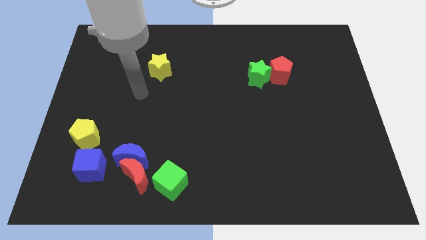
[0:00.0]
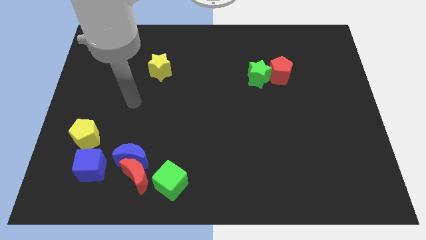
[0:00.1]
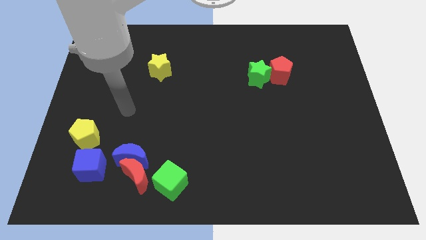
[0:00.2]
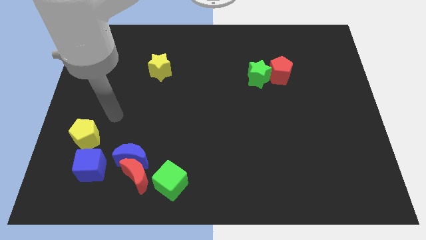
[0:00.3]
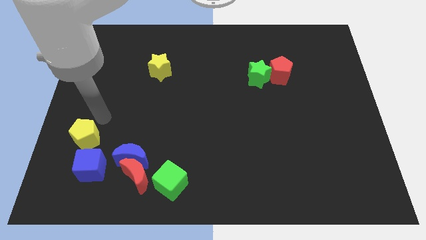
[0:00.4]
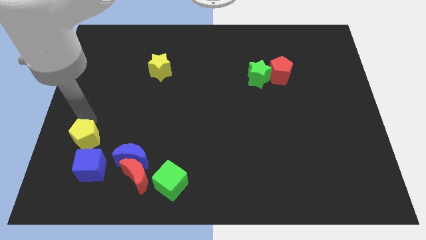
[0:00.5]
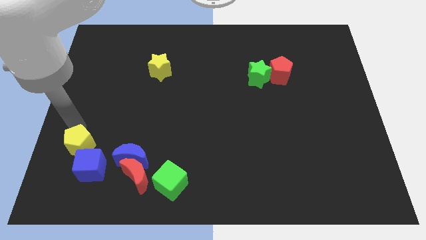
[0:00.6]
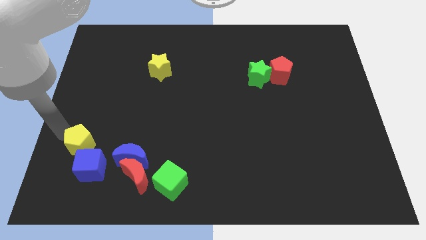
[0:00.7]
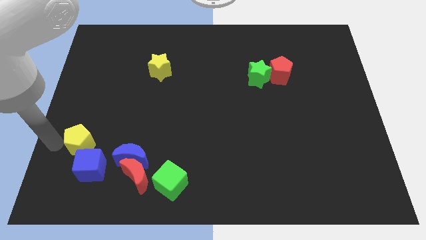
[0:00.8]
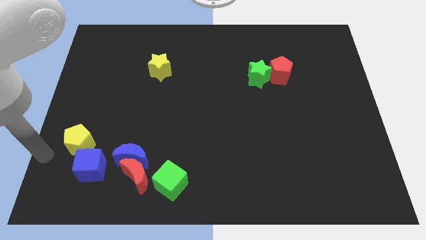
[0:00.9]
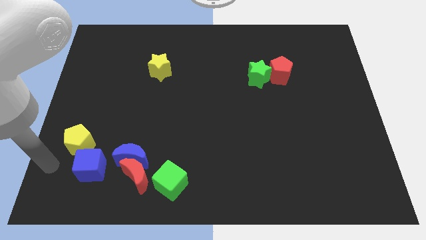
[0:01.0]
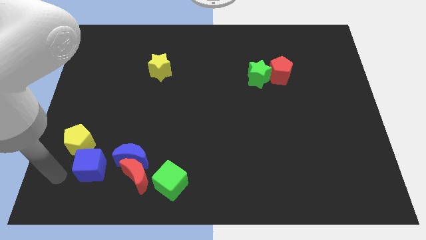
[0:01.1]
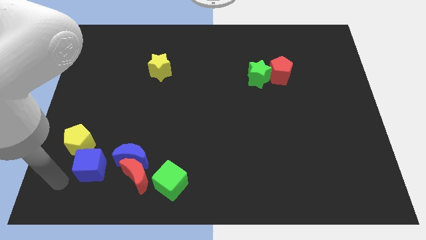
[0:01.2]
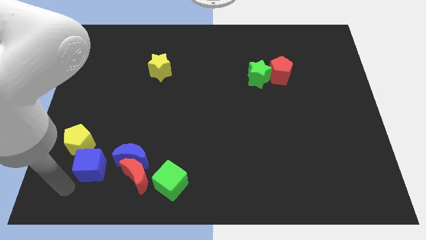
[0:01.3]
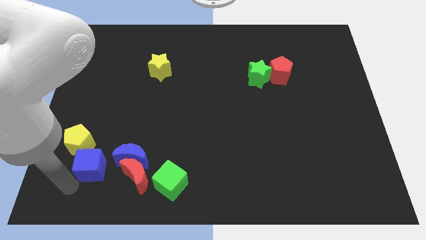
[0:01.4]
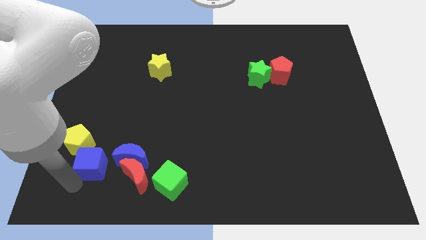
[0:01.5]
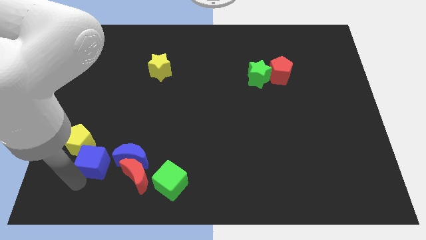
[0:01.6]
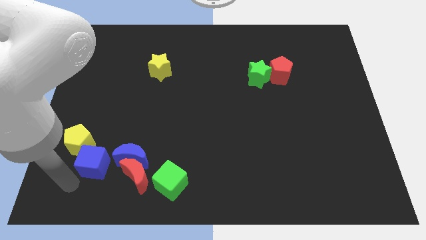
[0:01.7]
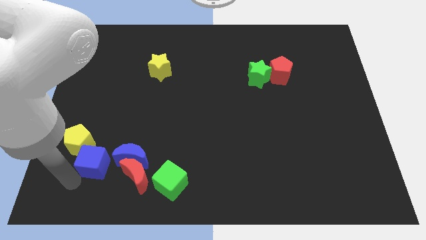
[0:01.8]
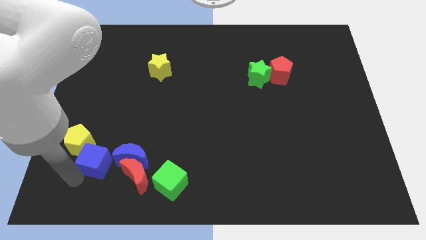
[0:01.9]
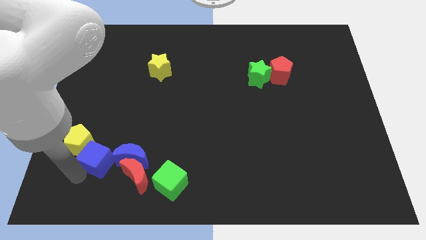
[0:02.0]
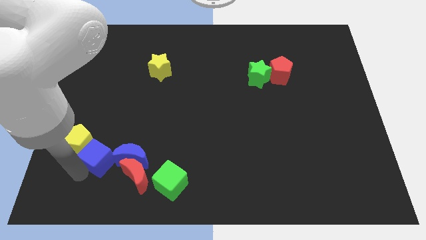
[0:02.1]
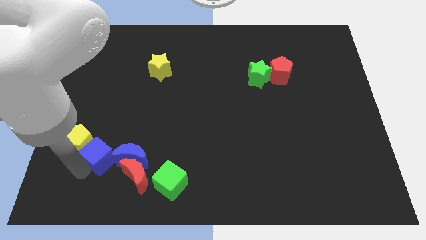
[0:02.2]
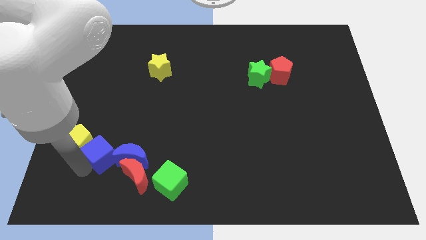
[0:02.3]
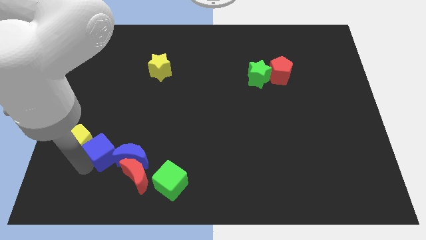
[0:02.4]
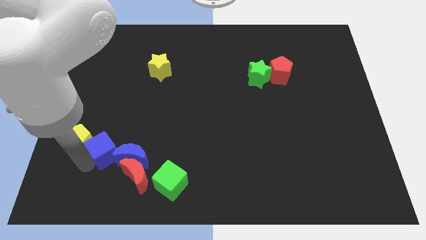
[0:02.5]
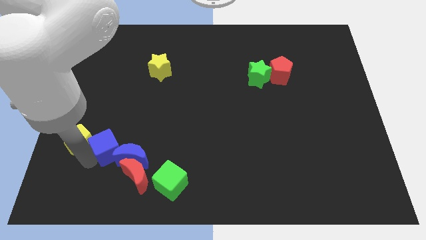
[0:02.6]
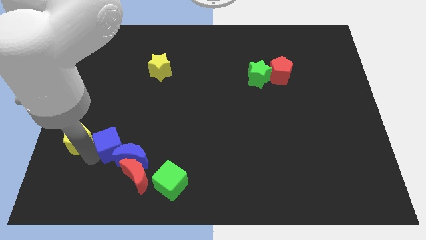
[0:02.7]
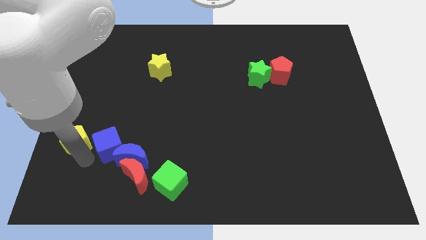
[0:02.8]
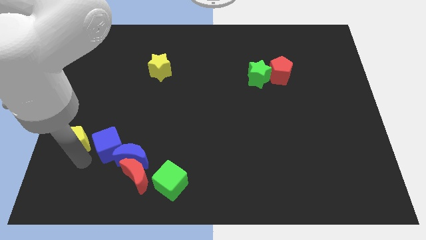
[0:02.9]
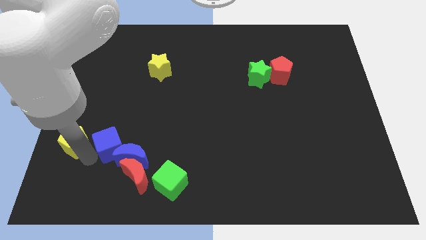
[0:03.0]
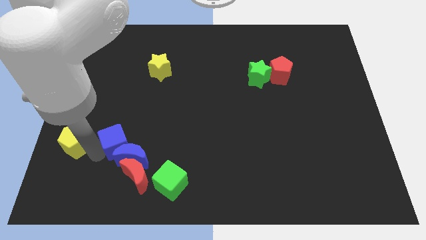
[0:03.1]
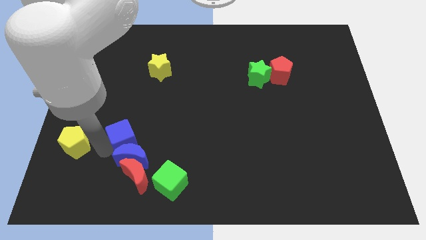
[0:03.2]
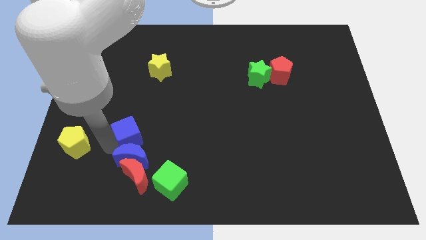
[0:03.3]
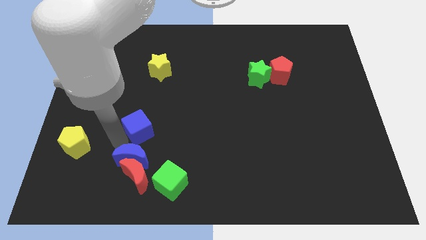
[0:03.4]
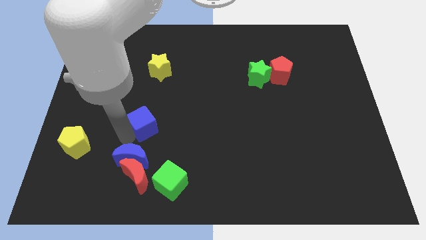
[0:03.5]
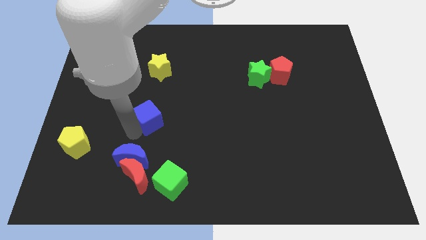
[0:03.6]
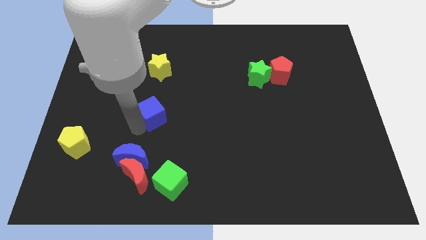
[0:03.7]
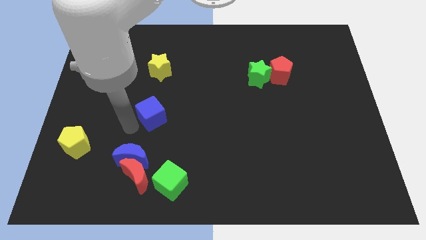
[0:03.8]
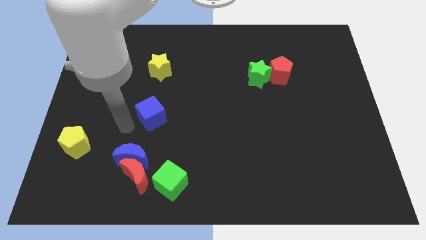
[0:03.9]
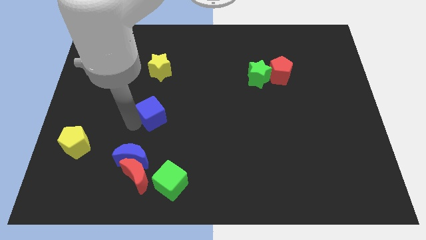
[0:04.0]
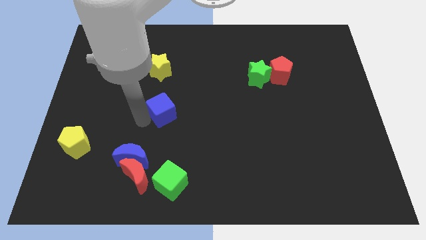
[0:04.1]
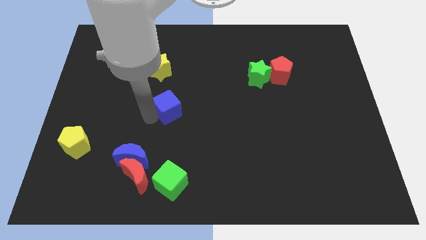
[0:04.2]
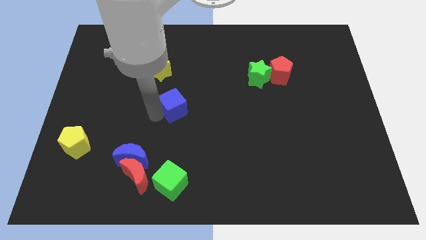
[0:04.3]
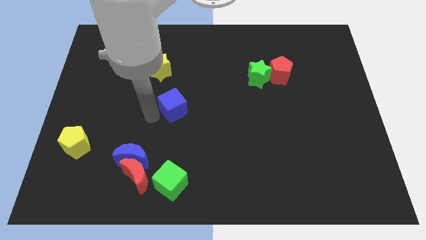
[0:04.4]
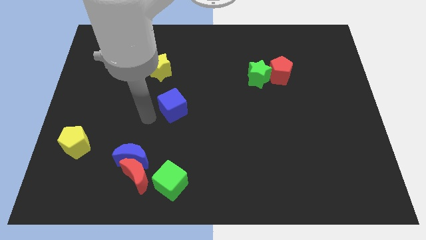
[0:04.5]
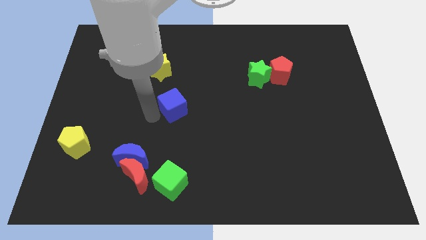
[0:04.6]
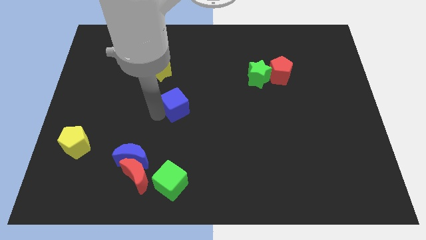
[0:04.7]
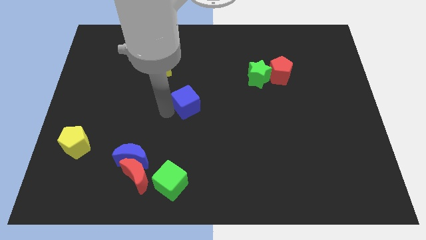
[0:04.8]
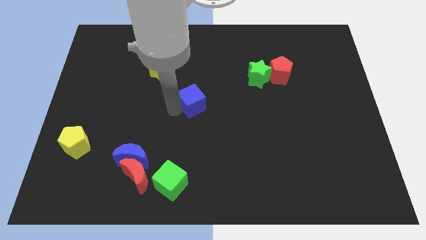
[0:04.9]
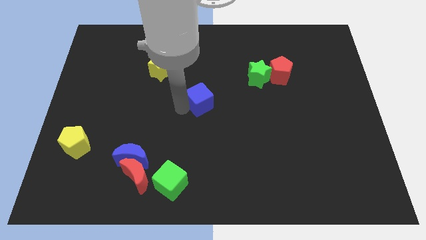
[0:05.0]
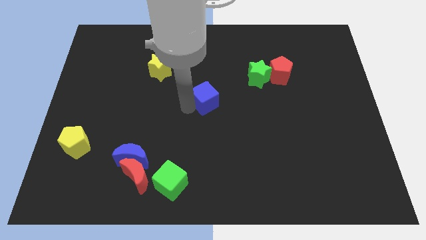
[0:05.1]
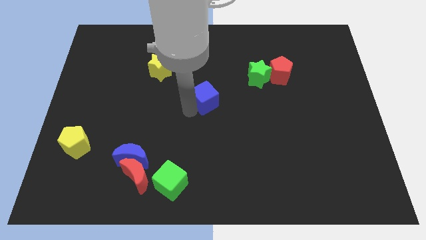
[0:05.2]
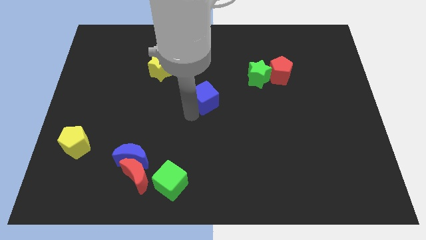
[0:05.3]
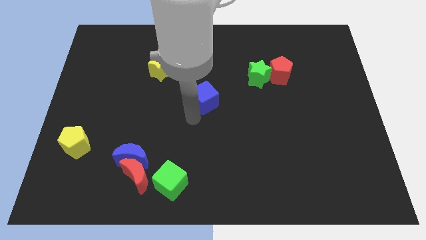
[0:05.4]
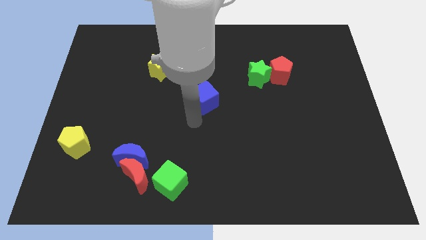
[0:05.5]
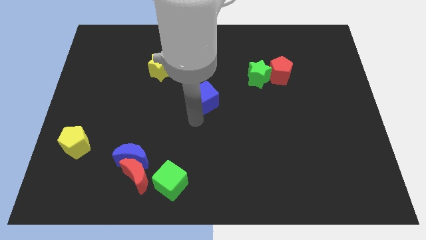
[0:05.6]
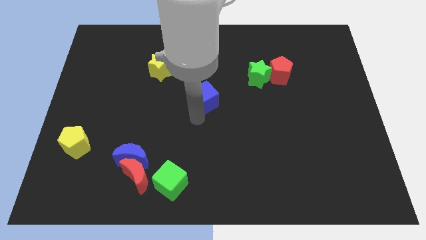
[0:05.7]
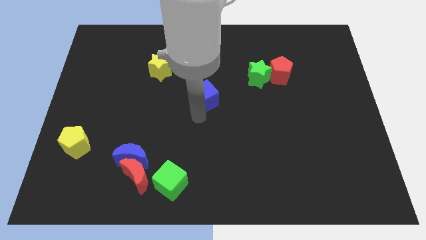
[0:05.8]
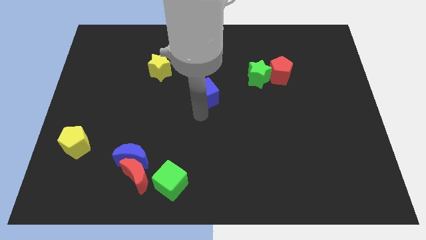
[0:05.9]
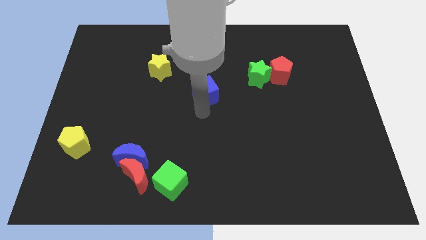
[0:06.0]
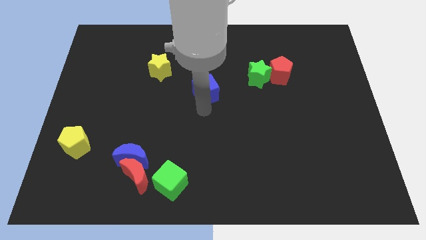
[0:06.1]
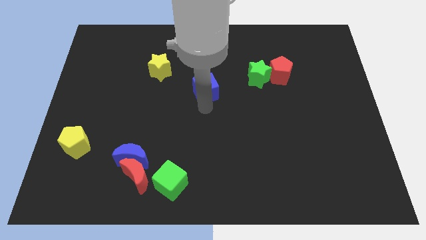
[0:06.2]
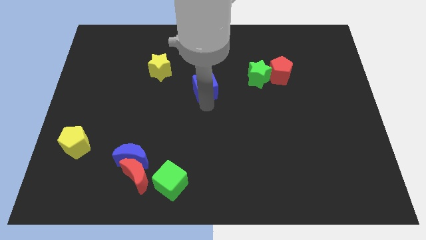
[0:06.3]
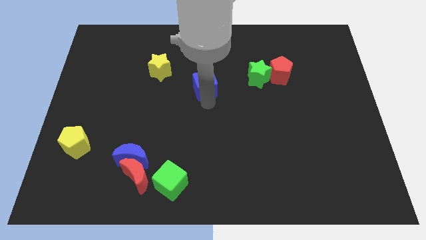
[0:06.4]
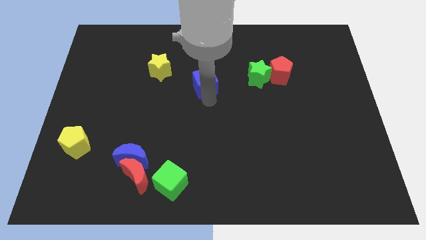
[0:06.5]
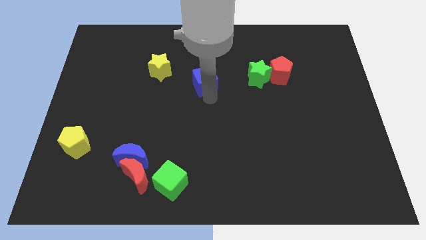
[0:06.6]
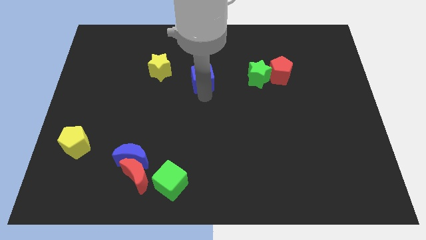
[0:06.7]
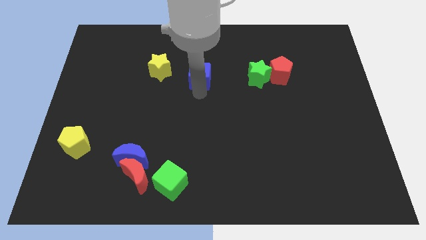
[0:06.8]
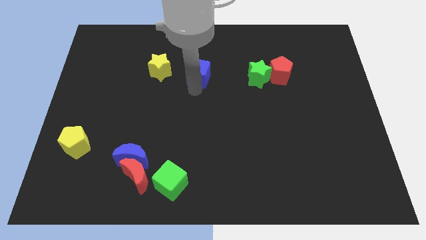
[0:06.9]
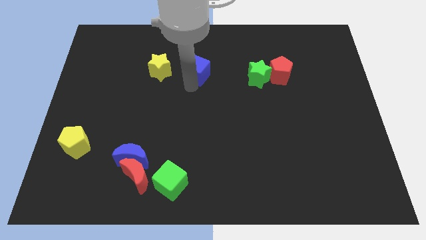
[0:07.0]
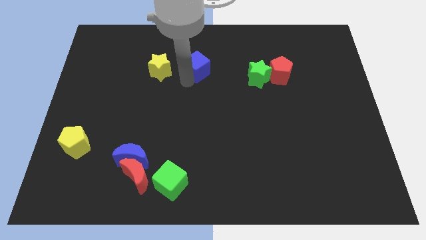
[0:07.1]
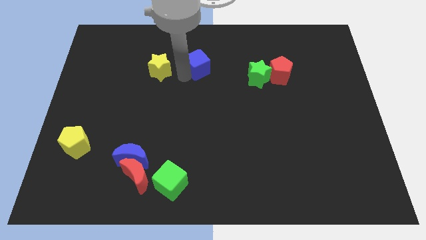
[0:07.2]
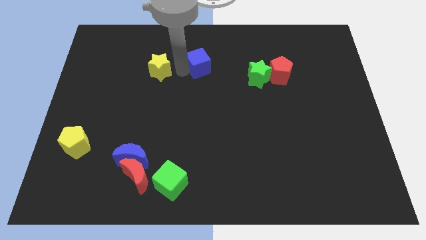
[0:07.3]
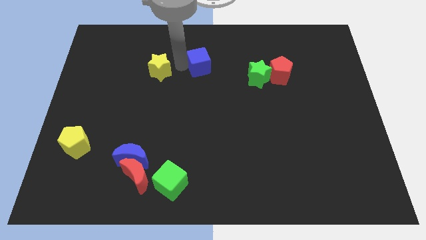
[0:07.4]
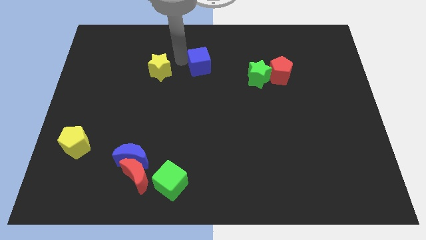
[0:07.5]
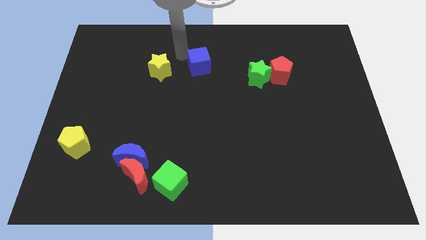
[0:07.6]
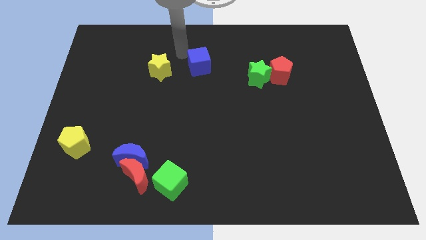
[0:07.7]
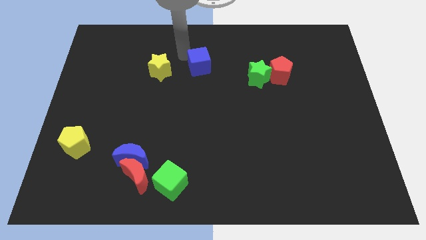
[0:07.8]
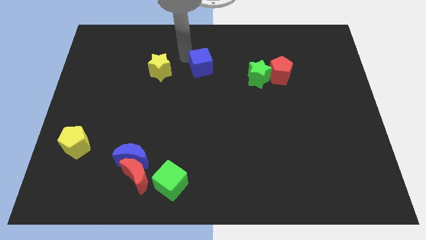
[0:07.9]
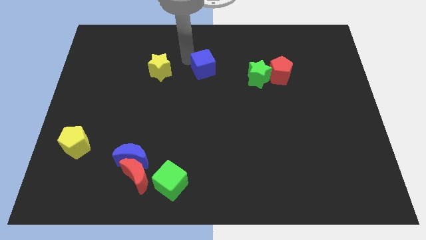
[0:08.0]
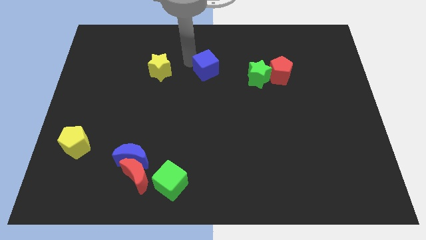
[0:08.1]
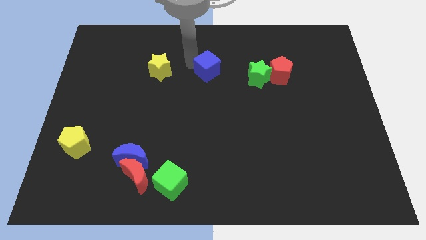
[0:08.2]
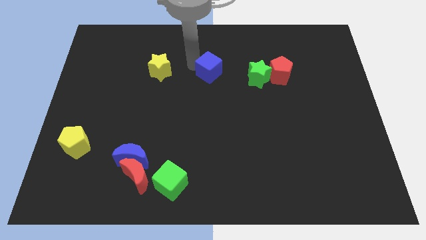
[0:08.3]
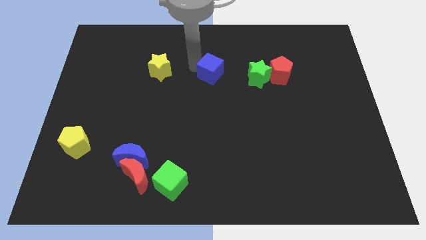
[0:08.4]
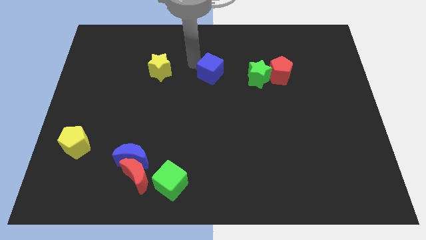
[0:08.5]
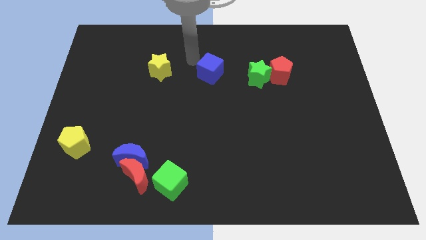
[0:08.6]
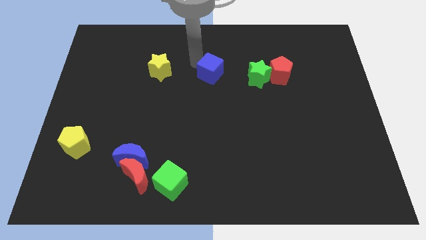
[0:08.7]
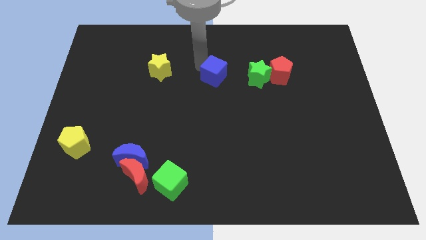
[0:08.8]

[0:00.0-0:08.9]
put the blue cube just left of the red pentagon
